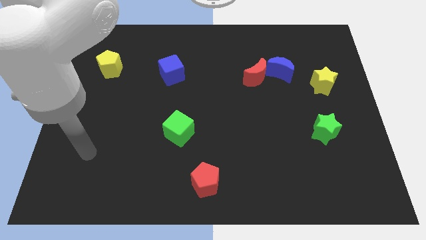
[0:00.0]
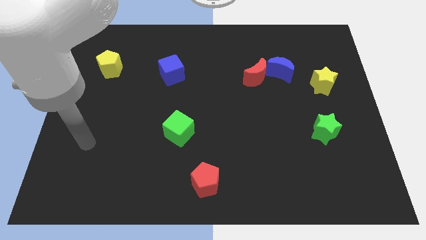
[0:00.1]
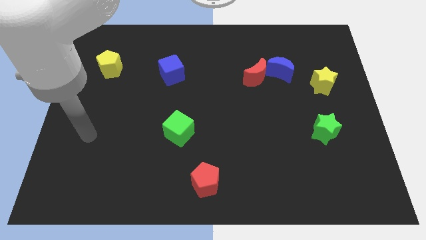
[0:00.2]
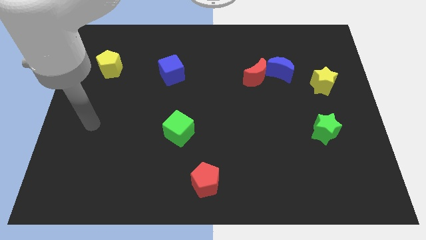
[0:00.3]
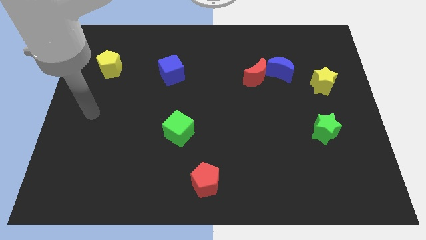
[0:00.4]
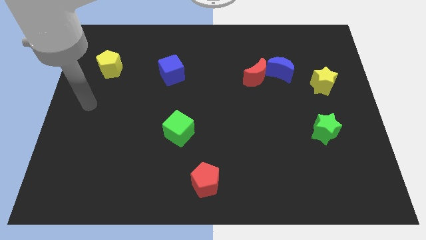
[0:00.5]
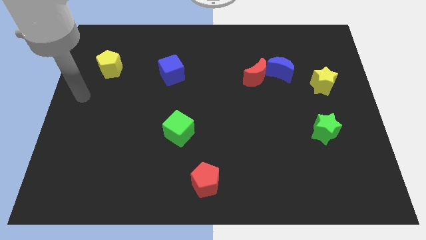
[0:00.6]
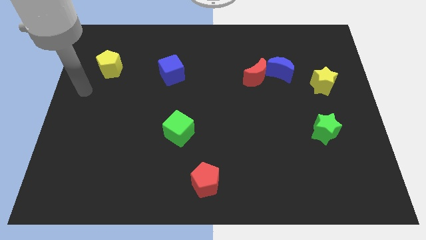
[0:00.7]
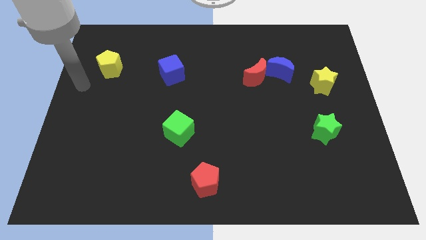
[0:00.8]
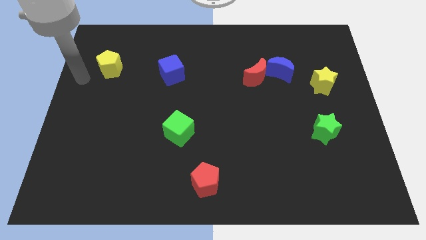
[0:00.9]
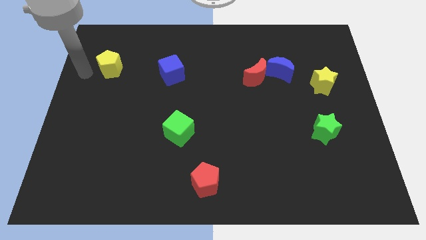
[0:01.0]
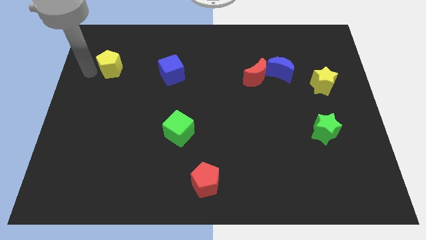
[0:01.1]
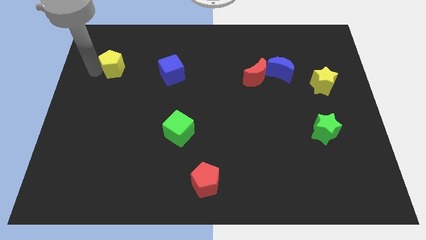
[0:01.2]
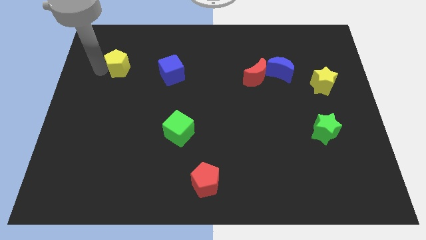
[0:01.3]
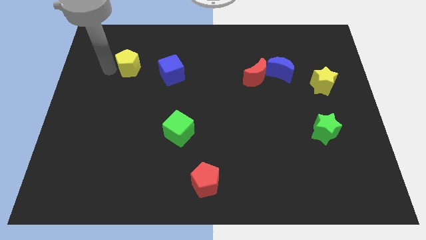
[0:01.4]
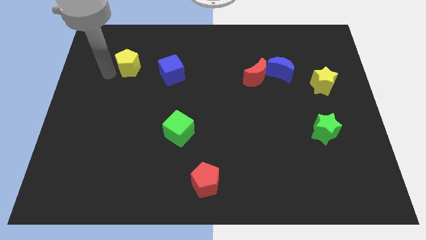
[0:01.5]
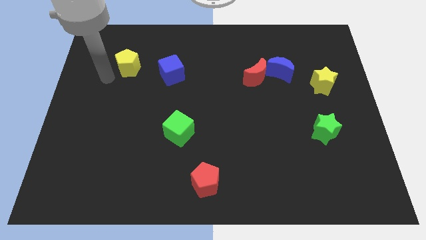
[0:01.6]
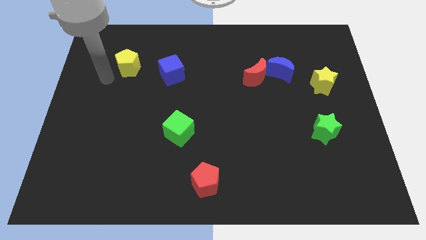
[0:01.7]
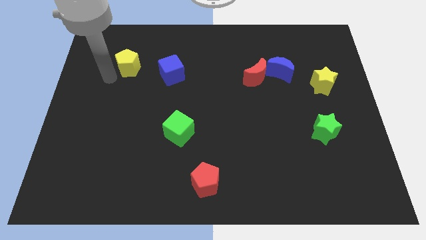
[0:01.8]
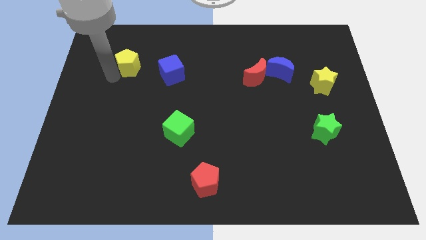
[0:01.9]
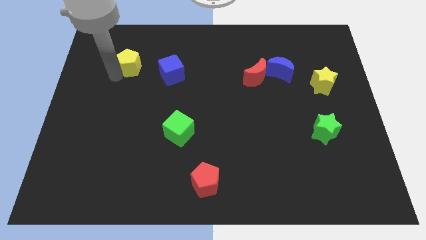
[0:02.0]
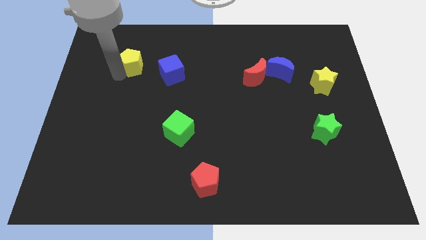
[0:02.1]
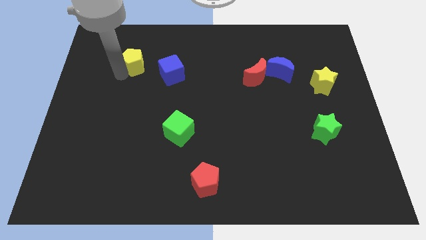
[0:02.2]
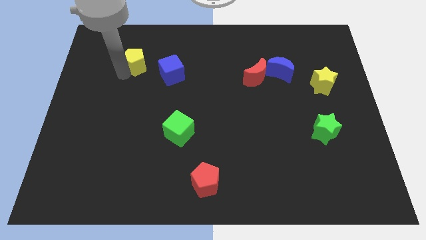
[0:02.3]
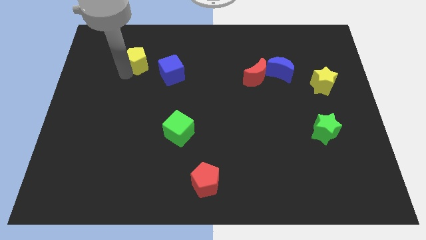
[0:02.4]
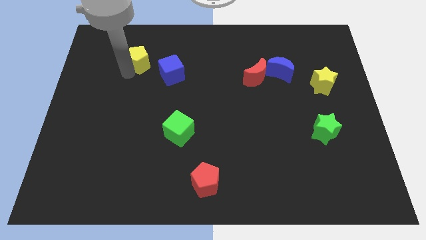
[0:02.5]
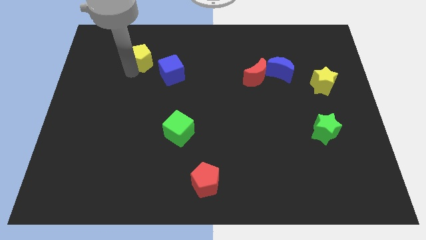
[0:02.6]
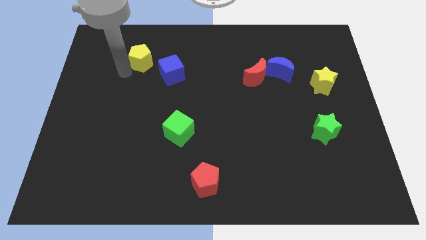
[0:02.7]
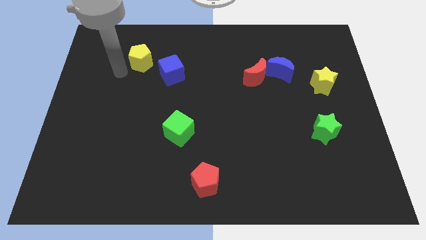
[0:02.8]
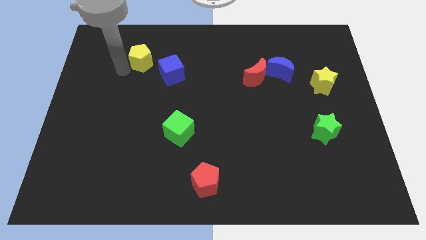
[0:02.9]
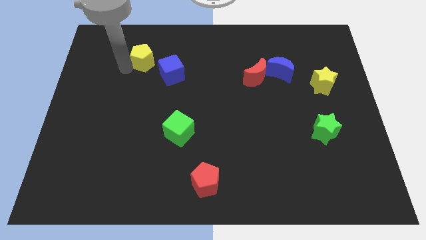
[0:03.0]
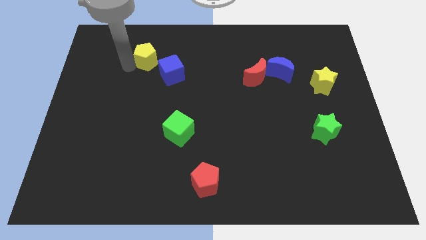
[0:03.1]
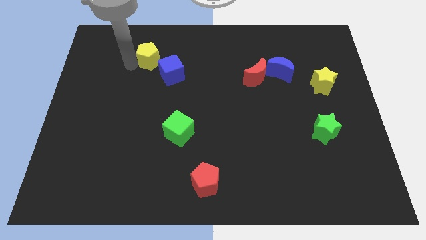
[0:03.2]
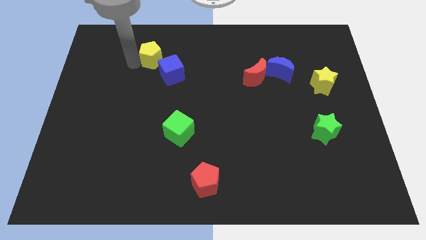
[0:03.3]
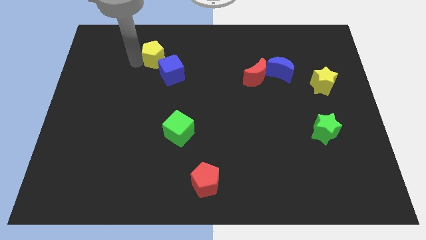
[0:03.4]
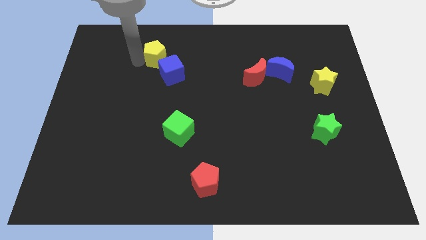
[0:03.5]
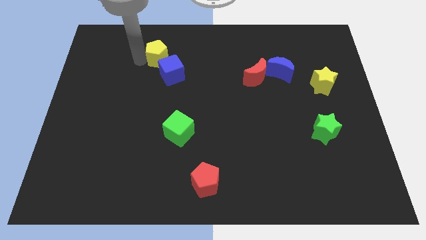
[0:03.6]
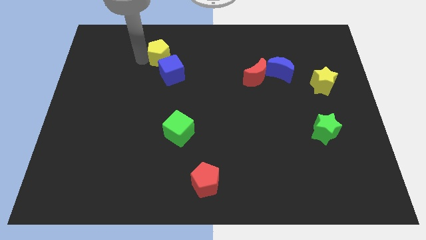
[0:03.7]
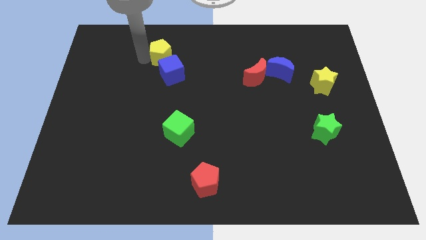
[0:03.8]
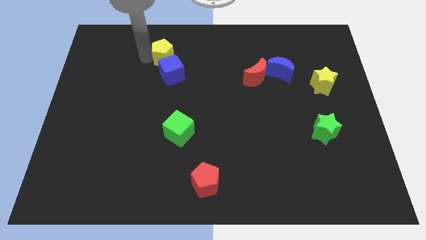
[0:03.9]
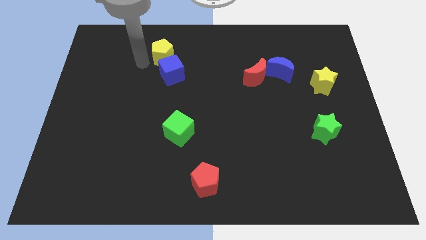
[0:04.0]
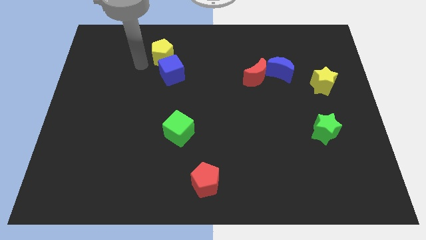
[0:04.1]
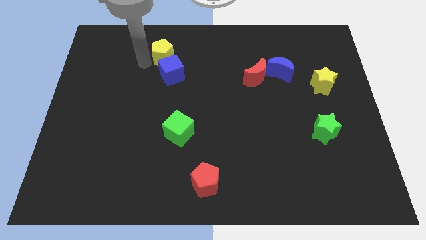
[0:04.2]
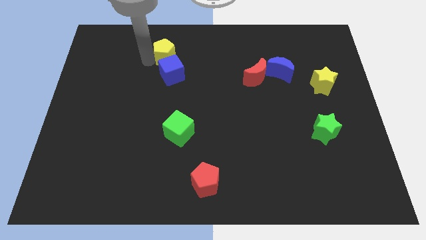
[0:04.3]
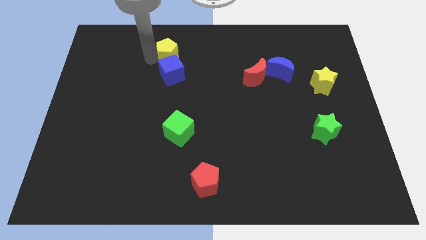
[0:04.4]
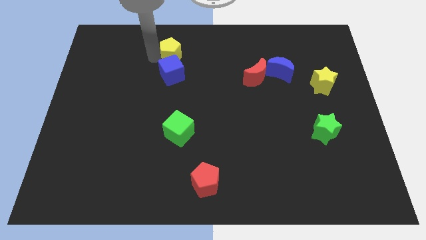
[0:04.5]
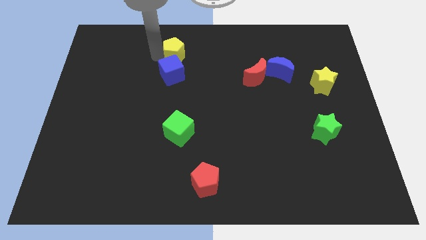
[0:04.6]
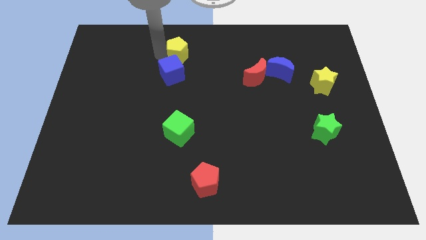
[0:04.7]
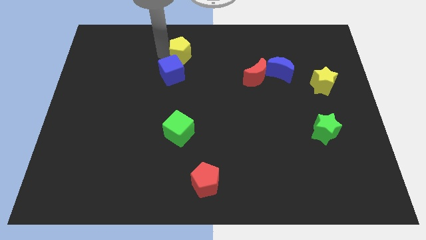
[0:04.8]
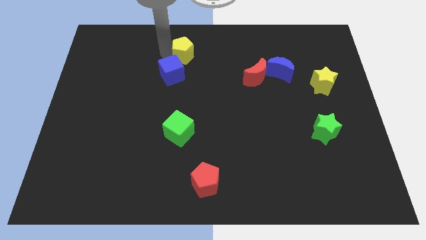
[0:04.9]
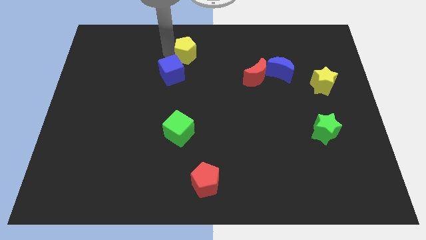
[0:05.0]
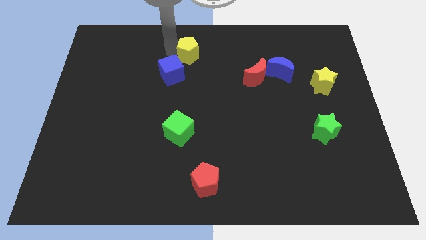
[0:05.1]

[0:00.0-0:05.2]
put the yellow pentagon to the top side

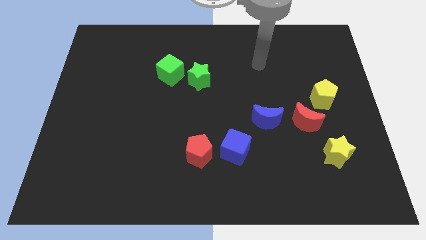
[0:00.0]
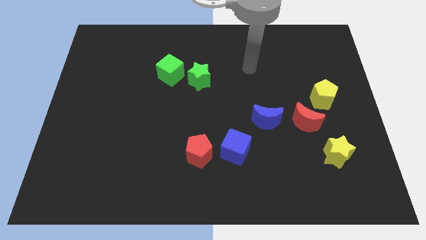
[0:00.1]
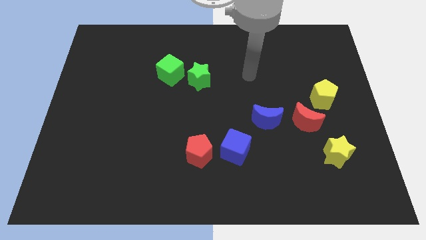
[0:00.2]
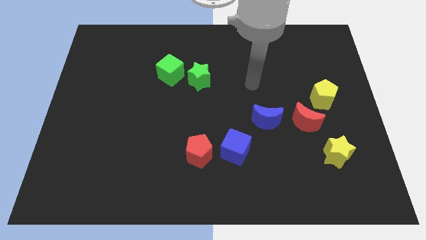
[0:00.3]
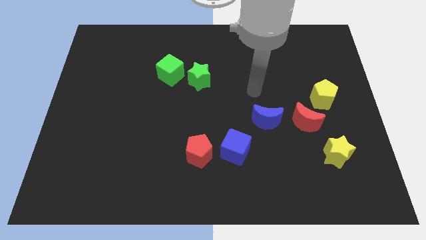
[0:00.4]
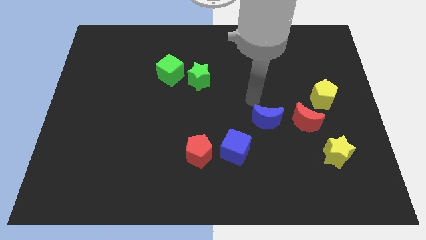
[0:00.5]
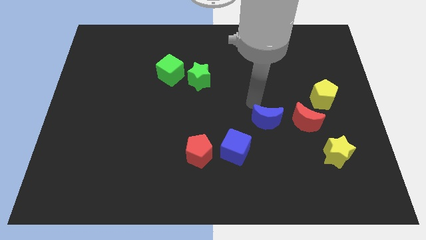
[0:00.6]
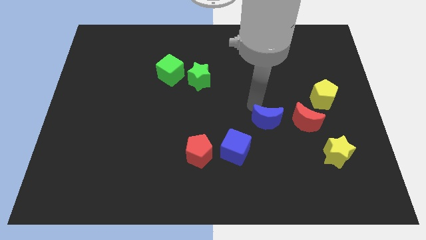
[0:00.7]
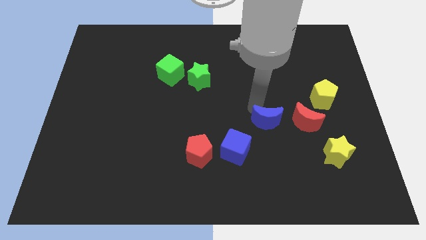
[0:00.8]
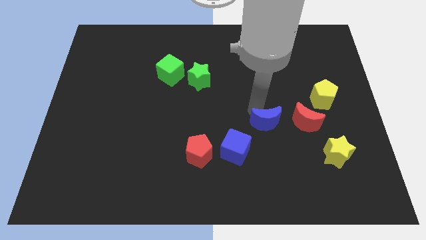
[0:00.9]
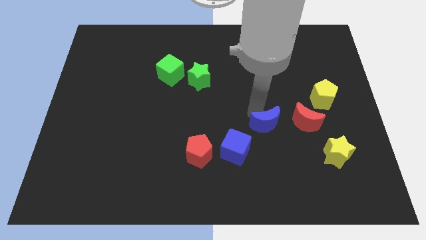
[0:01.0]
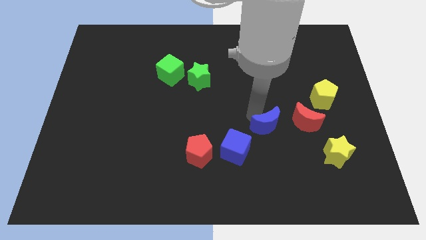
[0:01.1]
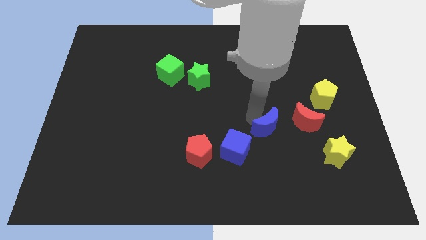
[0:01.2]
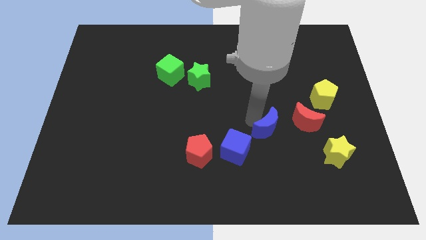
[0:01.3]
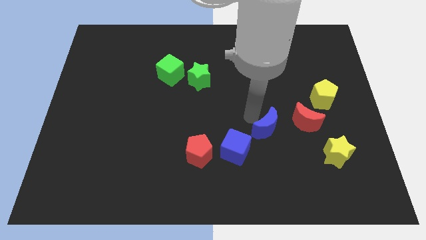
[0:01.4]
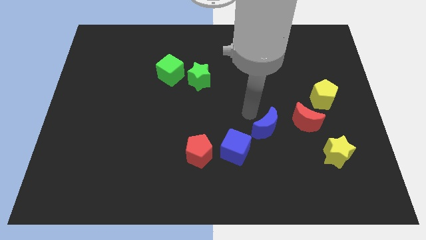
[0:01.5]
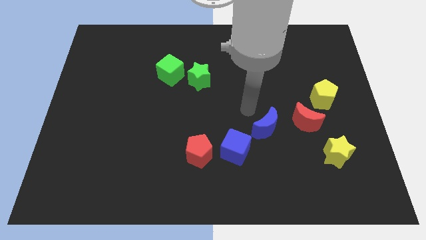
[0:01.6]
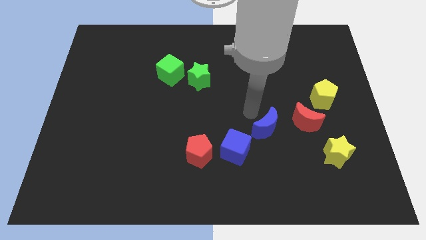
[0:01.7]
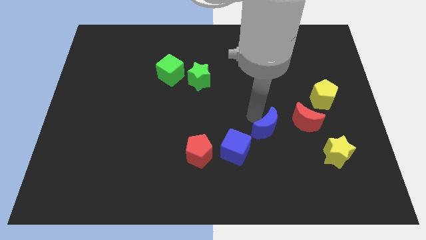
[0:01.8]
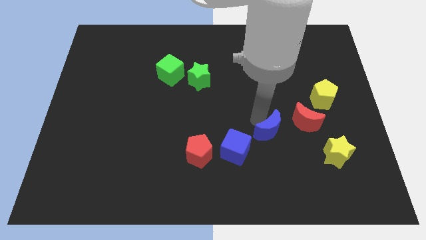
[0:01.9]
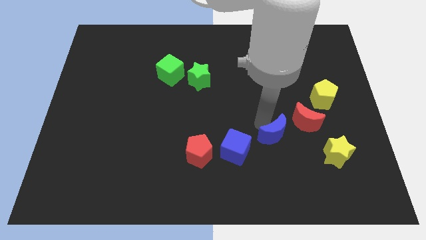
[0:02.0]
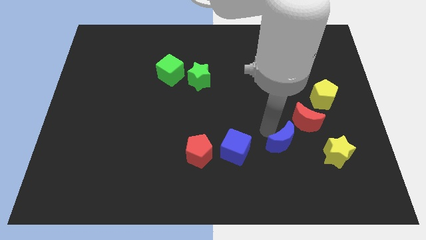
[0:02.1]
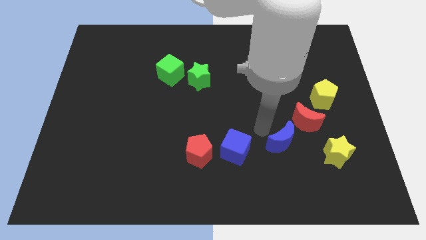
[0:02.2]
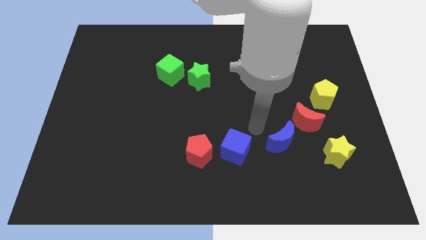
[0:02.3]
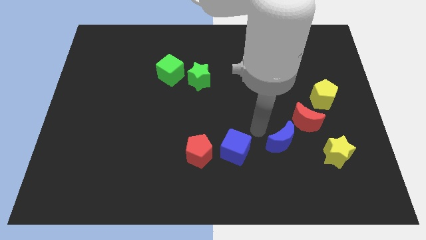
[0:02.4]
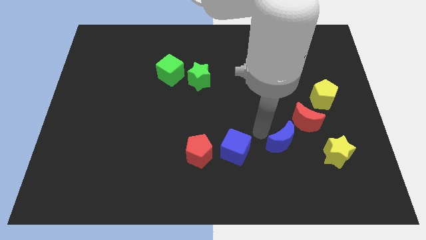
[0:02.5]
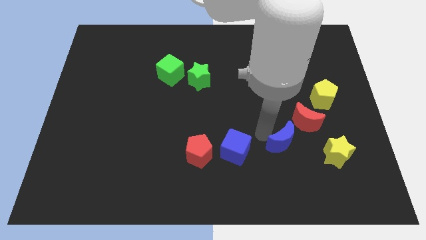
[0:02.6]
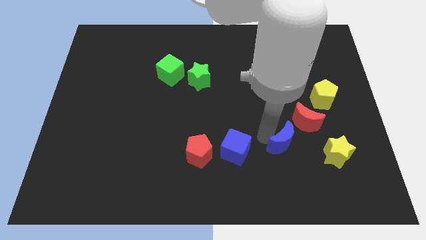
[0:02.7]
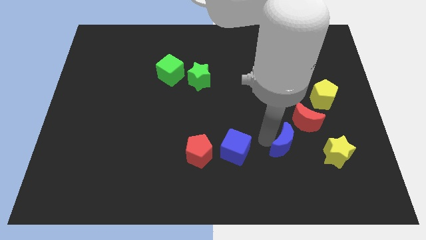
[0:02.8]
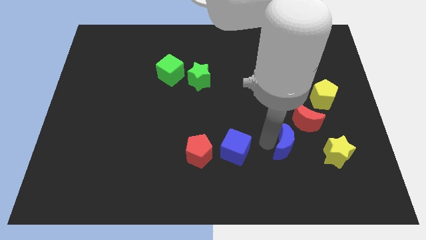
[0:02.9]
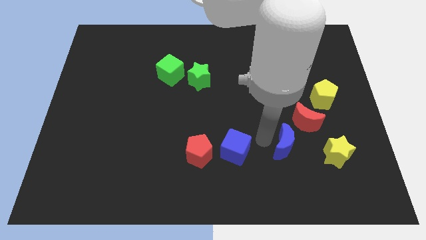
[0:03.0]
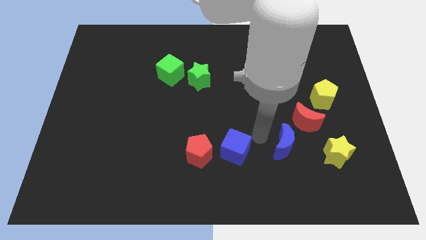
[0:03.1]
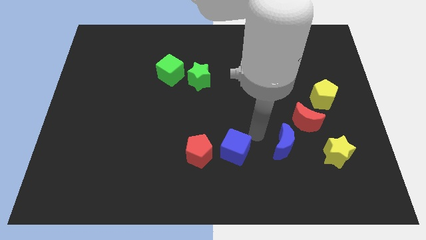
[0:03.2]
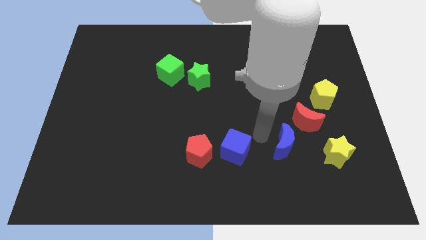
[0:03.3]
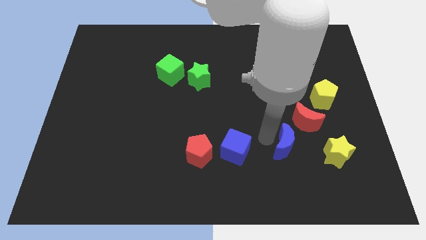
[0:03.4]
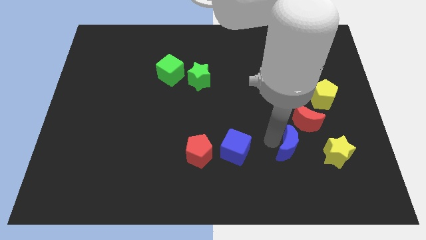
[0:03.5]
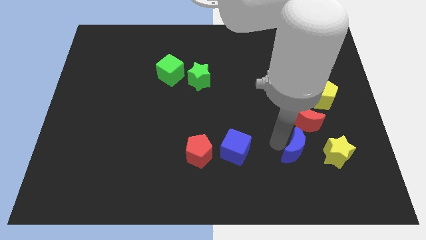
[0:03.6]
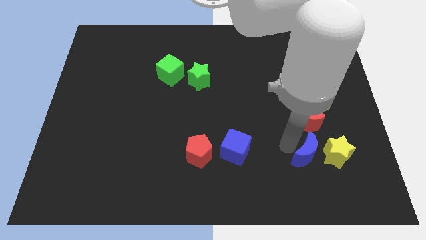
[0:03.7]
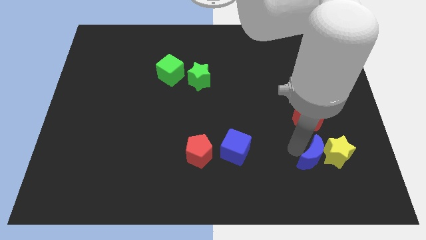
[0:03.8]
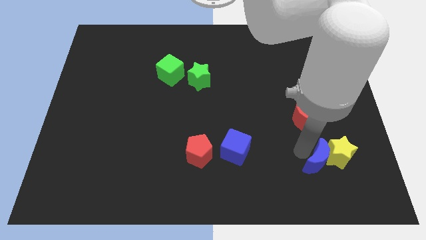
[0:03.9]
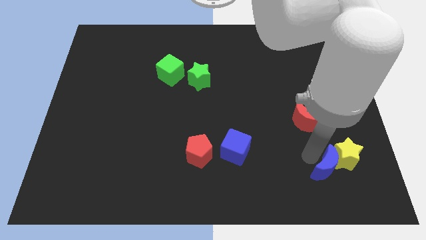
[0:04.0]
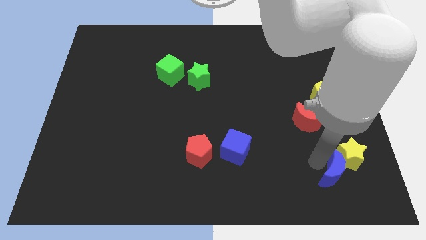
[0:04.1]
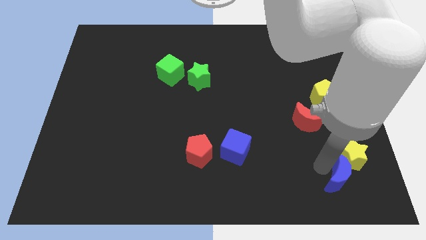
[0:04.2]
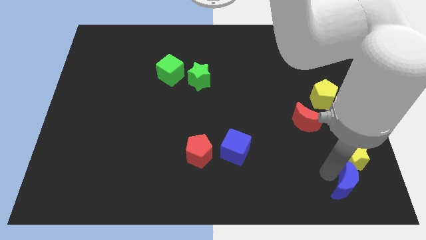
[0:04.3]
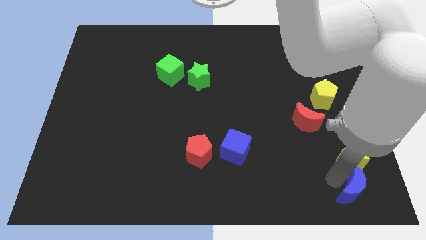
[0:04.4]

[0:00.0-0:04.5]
slide the blue moon to the bottom right corner
